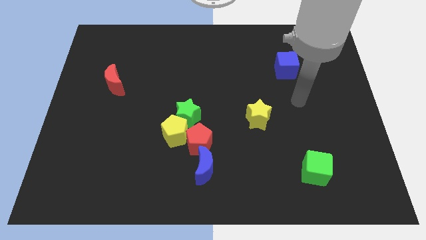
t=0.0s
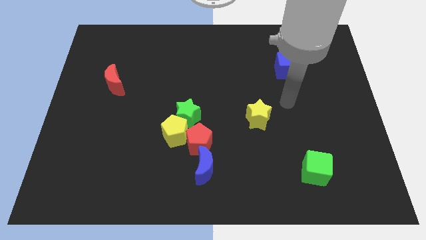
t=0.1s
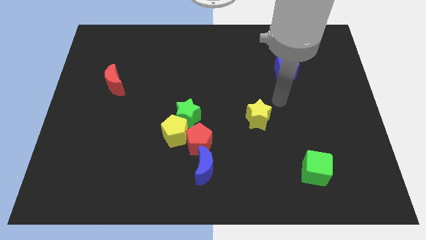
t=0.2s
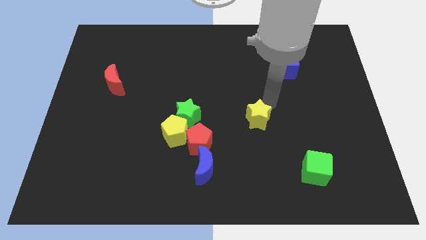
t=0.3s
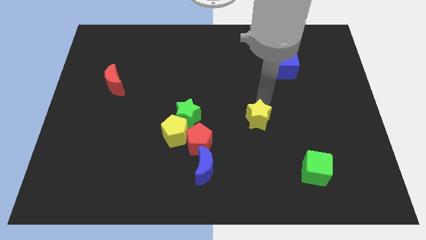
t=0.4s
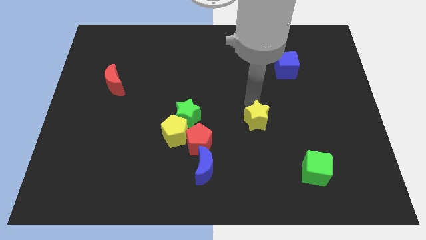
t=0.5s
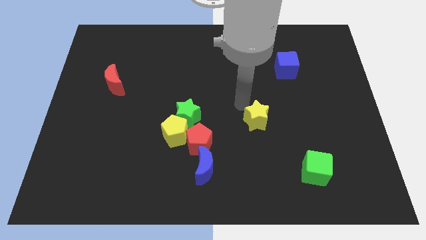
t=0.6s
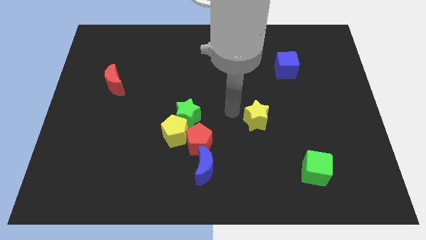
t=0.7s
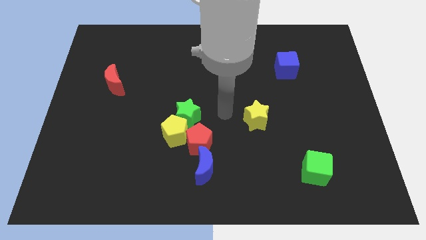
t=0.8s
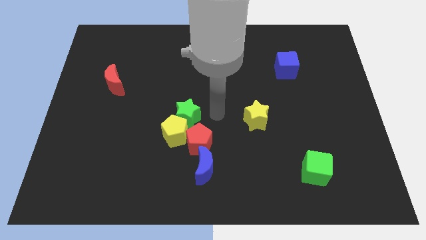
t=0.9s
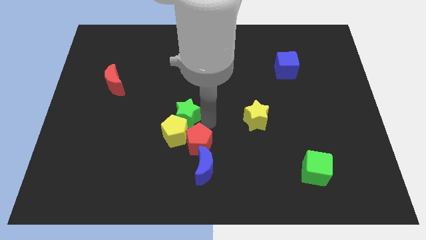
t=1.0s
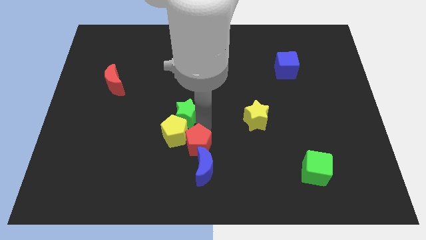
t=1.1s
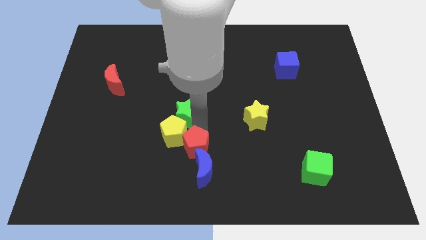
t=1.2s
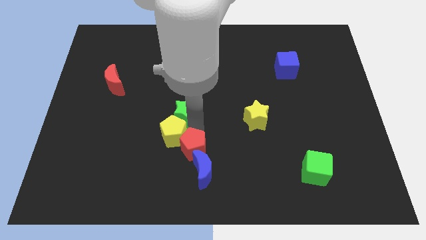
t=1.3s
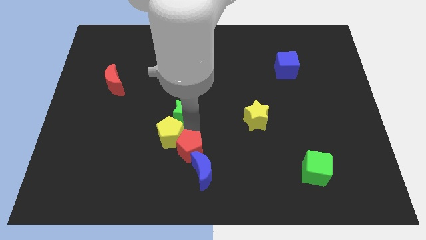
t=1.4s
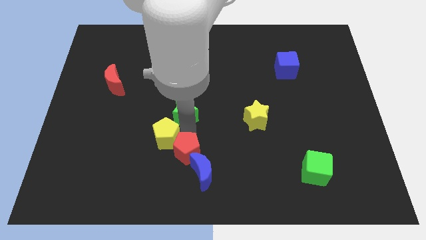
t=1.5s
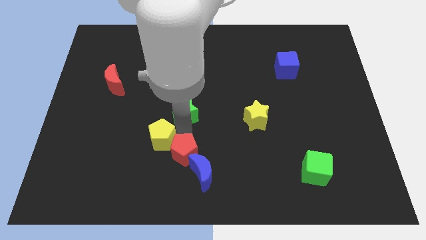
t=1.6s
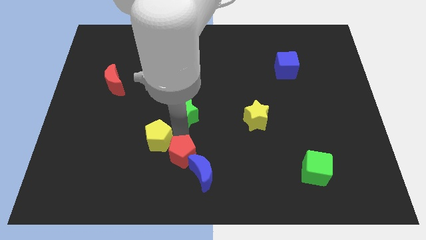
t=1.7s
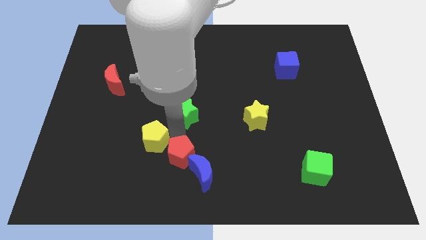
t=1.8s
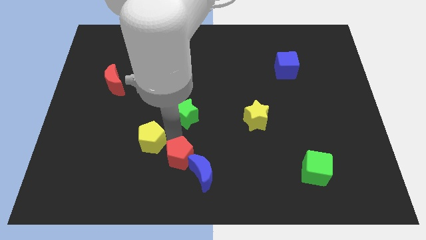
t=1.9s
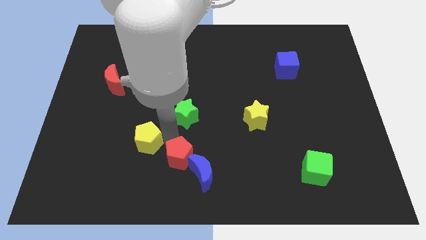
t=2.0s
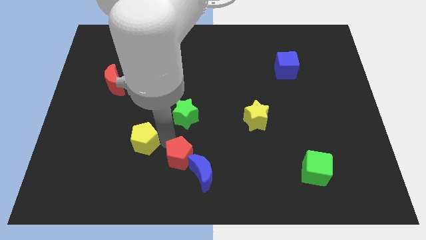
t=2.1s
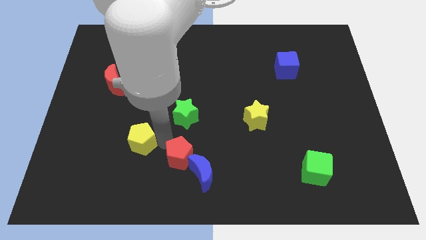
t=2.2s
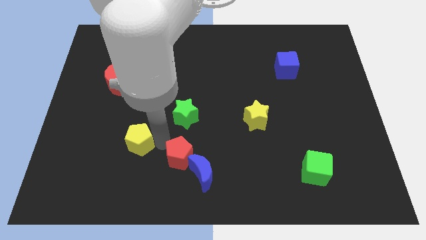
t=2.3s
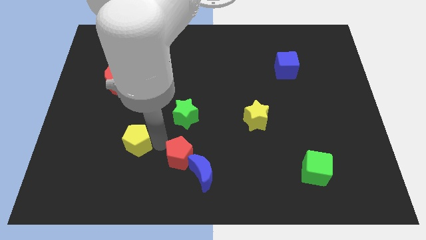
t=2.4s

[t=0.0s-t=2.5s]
pull the yellow pentagon apart from the green star and red pentagon

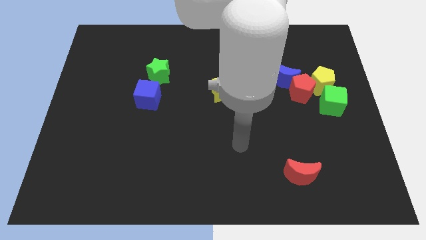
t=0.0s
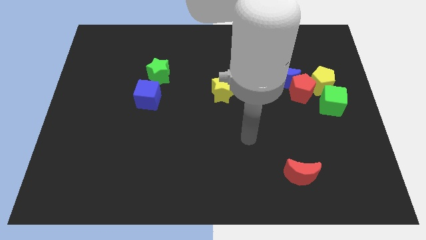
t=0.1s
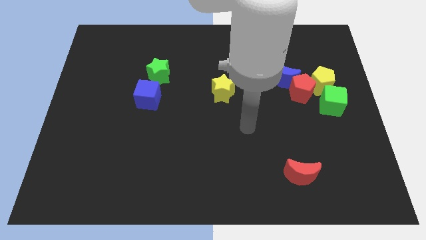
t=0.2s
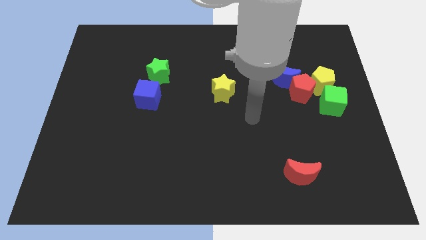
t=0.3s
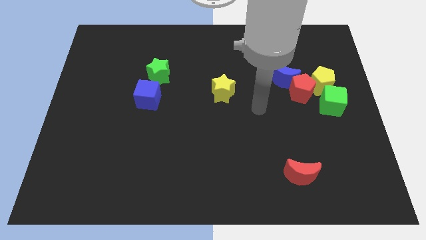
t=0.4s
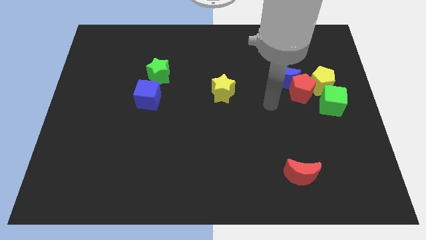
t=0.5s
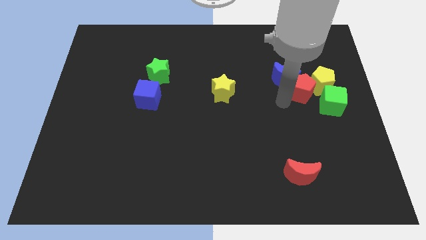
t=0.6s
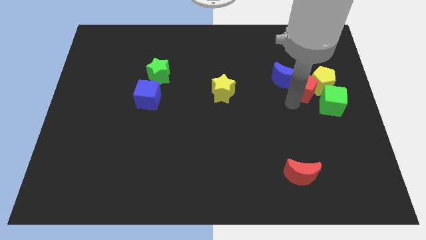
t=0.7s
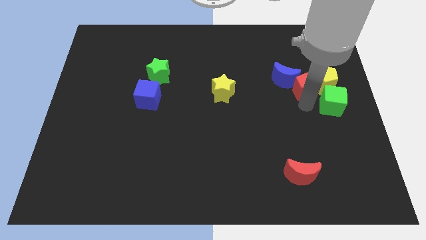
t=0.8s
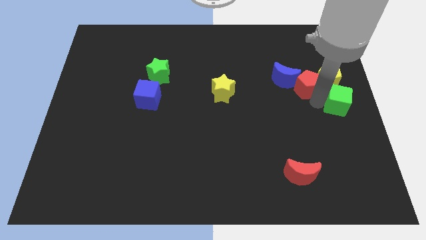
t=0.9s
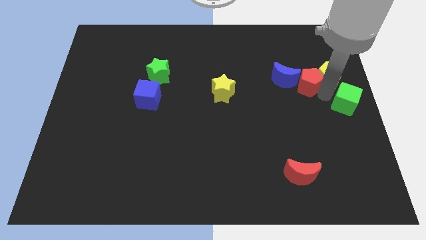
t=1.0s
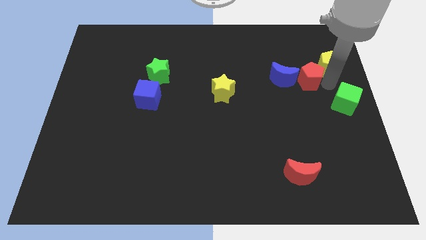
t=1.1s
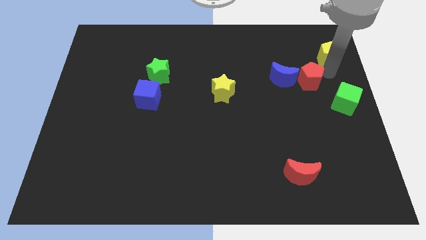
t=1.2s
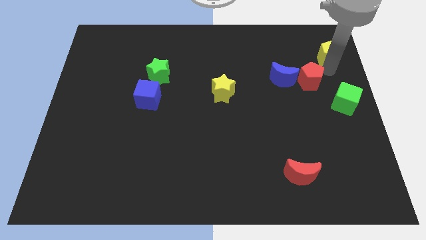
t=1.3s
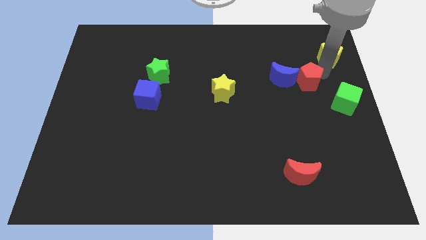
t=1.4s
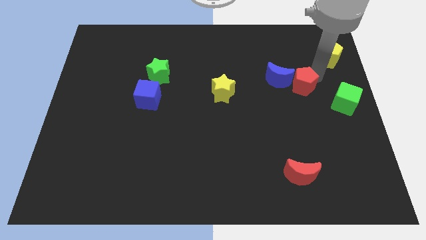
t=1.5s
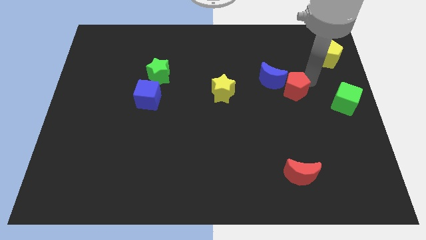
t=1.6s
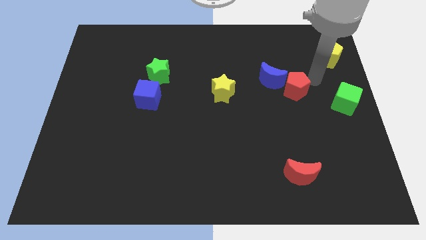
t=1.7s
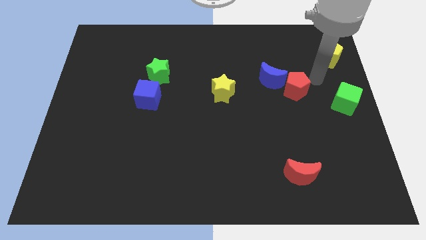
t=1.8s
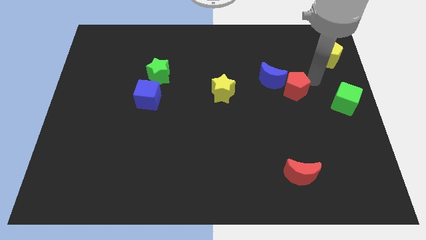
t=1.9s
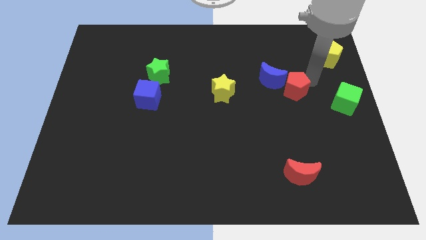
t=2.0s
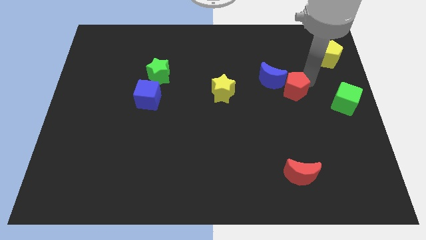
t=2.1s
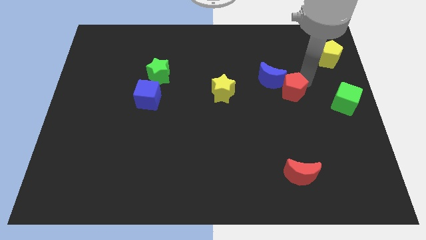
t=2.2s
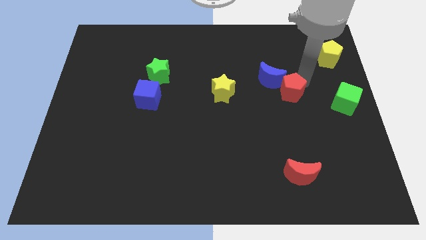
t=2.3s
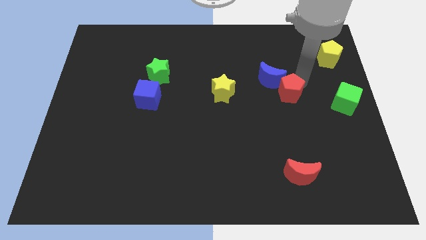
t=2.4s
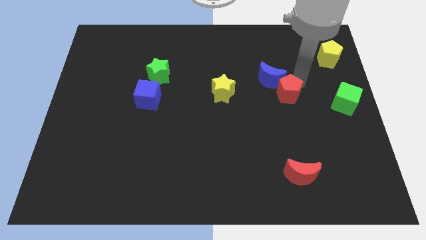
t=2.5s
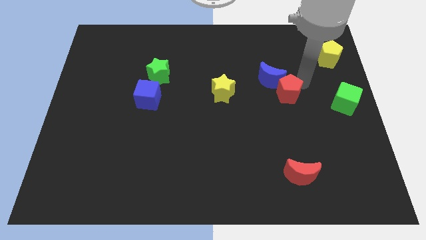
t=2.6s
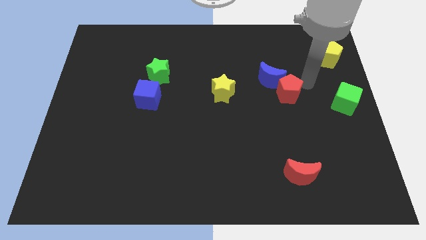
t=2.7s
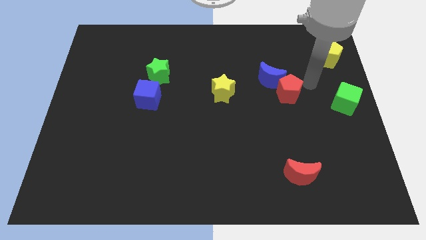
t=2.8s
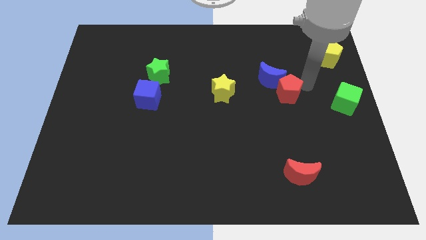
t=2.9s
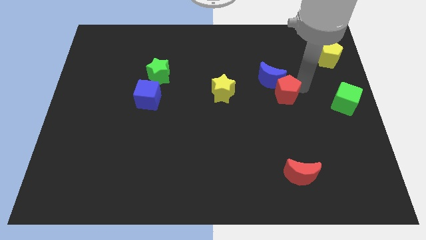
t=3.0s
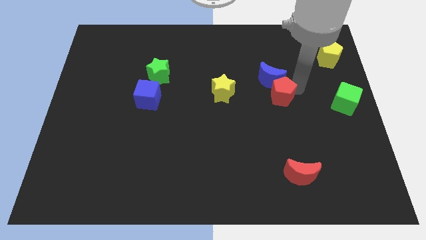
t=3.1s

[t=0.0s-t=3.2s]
separate the red pentagon from the clump

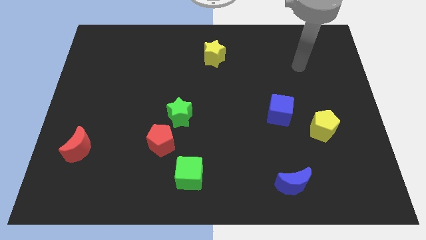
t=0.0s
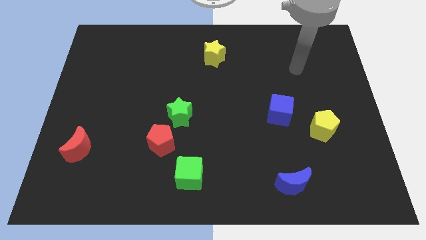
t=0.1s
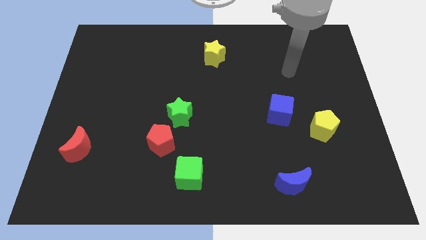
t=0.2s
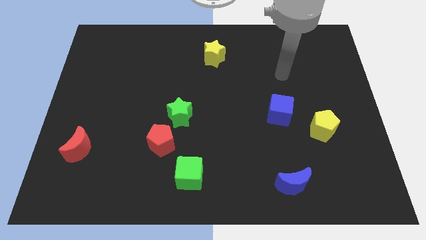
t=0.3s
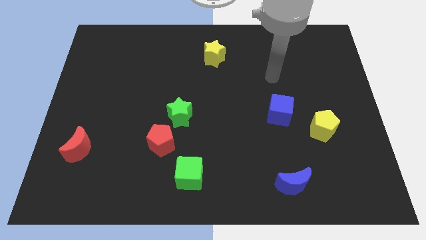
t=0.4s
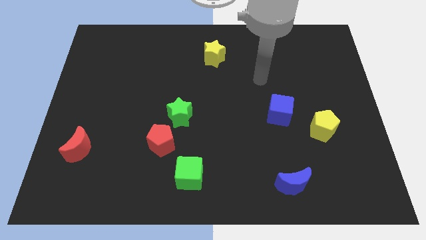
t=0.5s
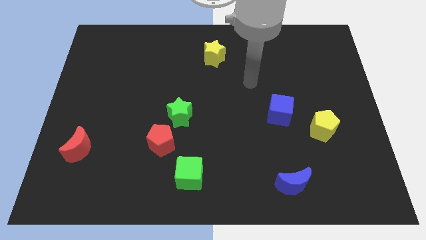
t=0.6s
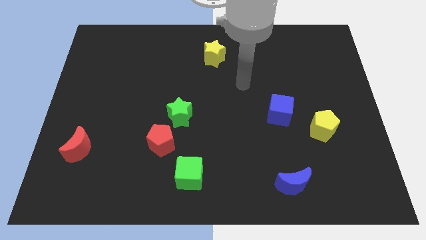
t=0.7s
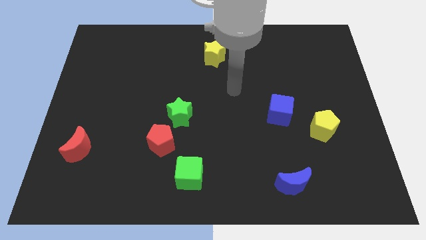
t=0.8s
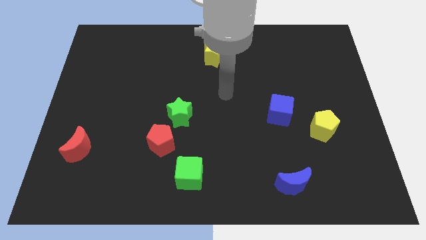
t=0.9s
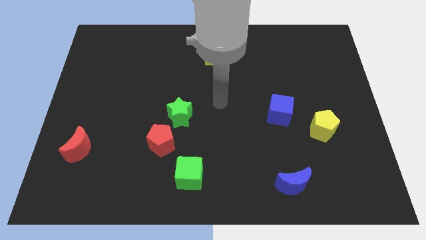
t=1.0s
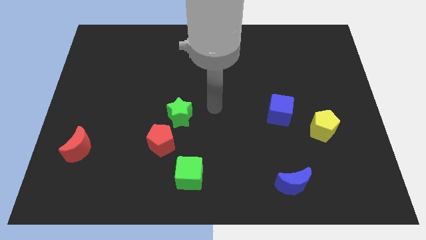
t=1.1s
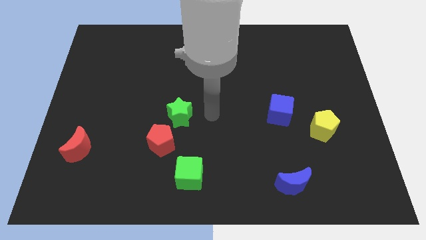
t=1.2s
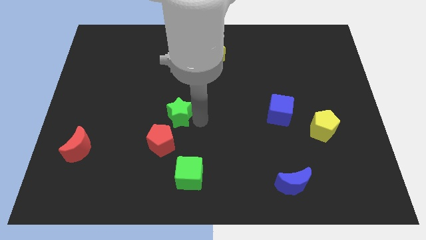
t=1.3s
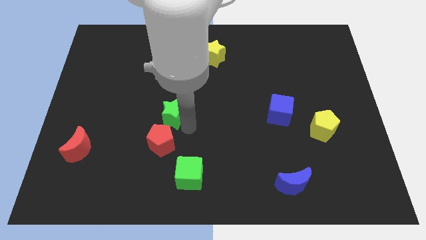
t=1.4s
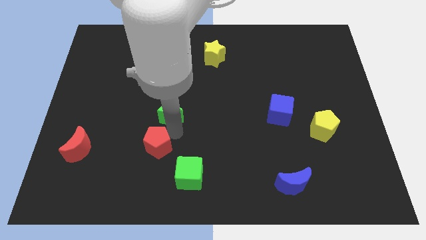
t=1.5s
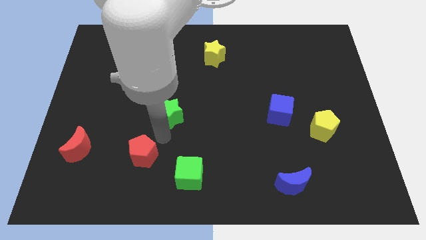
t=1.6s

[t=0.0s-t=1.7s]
pull the green star apart from the red pentagon

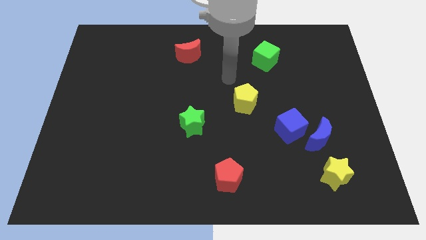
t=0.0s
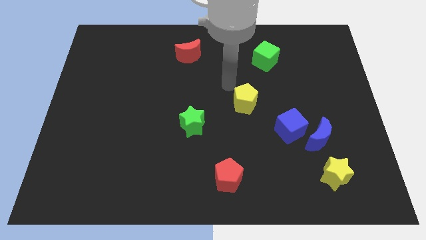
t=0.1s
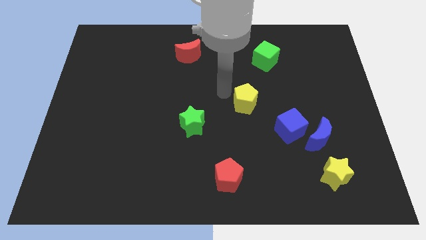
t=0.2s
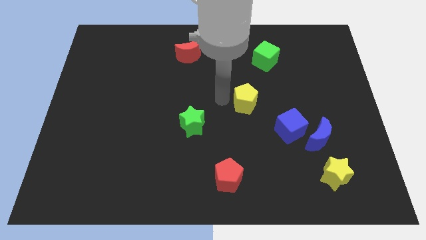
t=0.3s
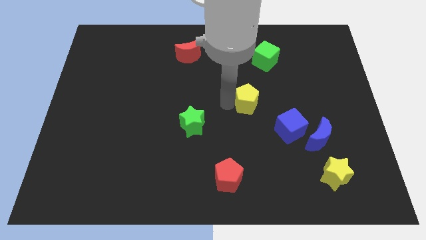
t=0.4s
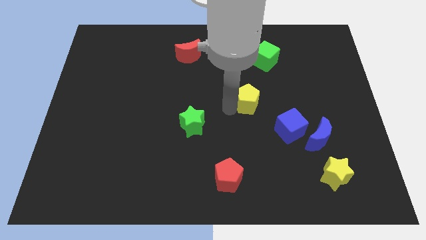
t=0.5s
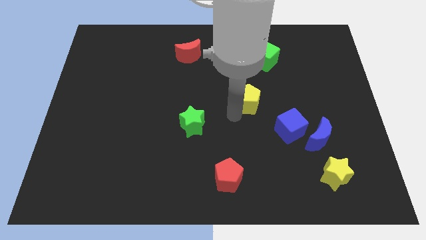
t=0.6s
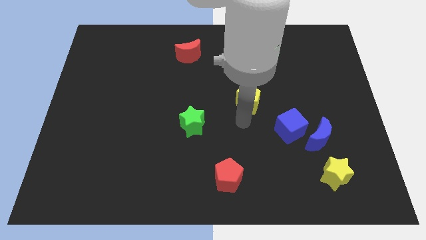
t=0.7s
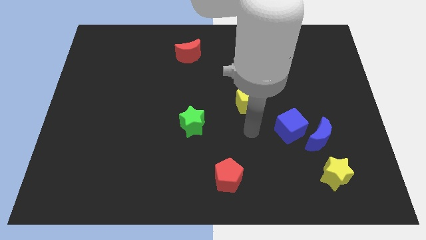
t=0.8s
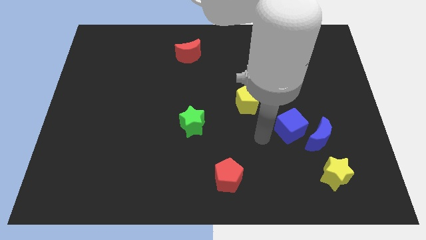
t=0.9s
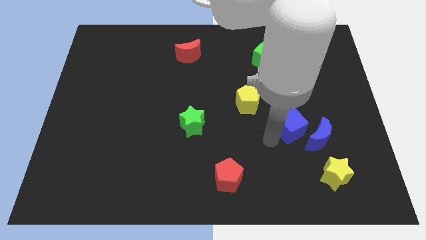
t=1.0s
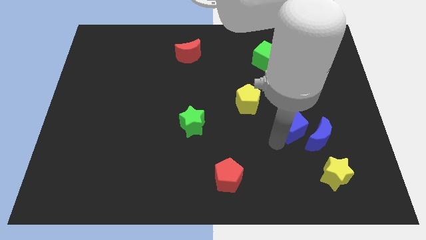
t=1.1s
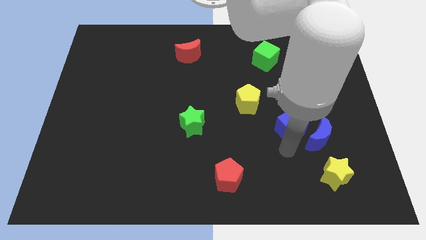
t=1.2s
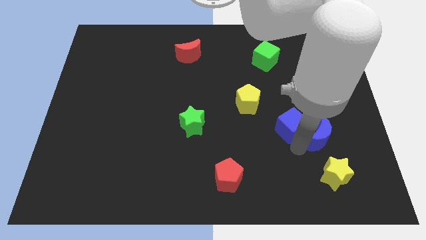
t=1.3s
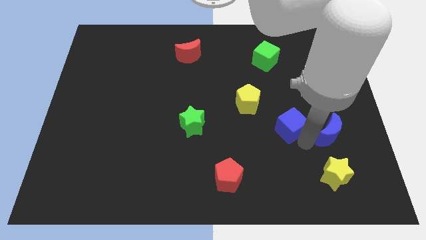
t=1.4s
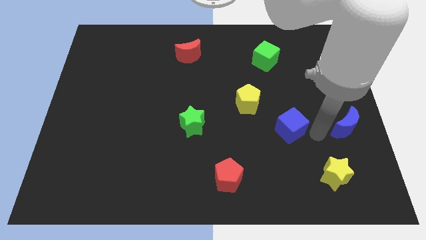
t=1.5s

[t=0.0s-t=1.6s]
pull the blue cube apart from the blue moon

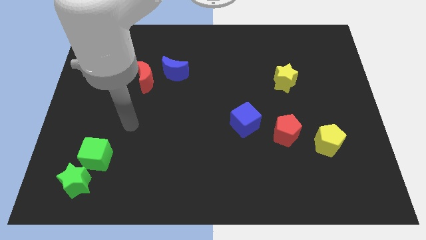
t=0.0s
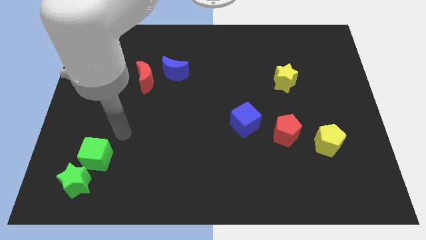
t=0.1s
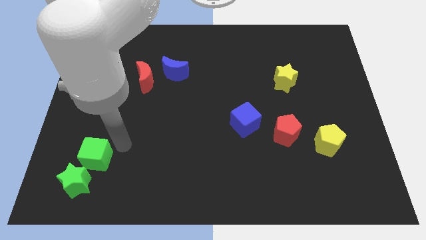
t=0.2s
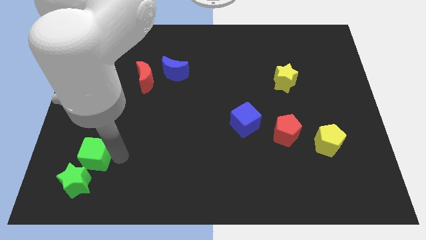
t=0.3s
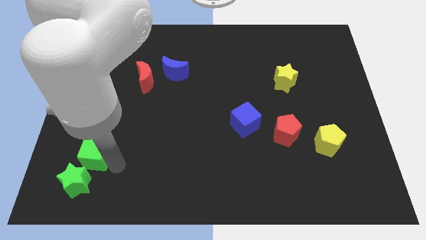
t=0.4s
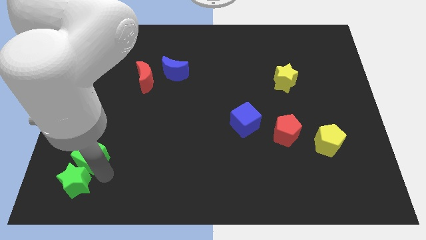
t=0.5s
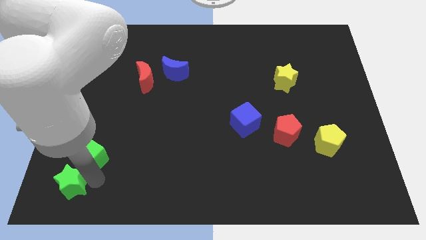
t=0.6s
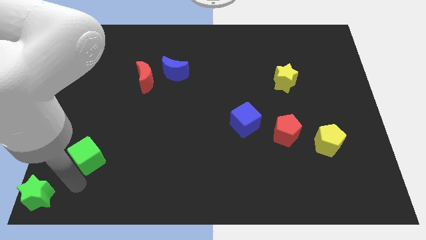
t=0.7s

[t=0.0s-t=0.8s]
separate the green cube from the green star
